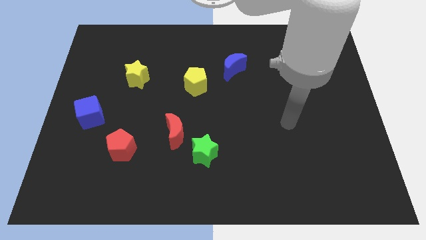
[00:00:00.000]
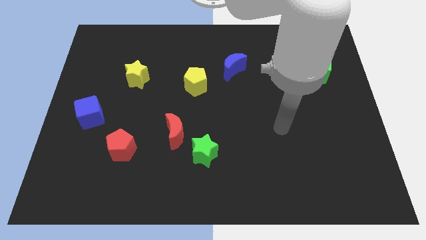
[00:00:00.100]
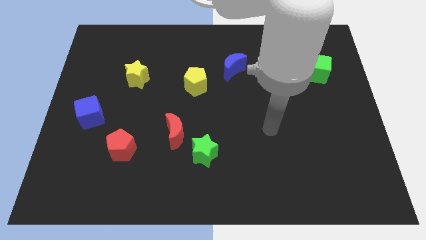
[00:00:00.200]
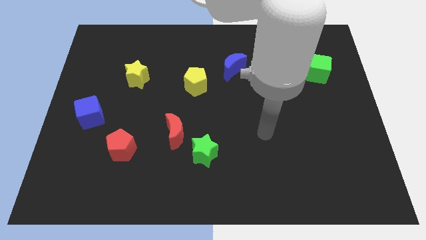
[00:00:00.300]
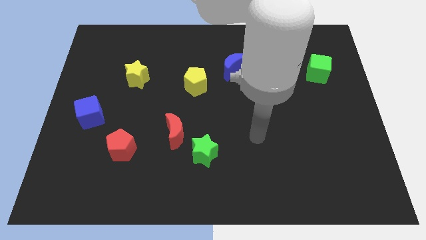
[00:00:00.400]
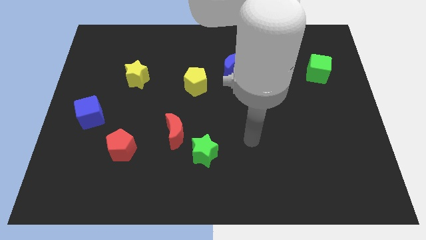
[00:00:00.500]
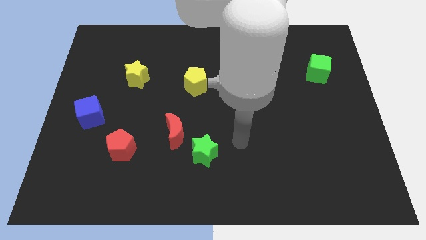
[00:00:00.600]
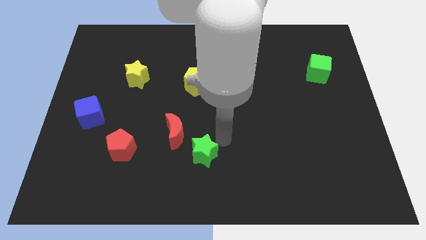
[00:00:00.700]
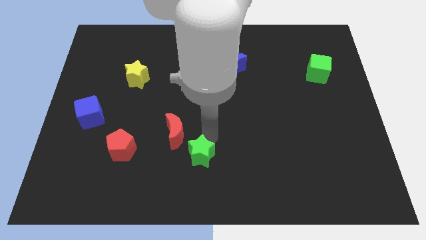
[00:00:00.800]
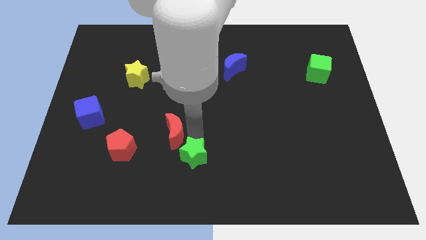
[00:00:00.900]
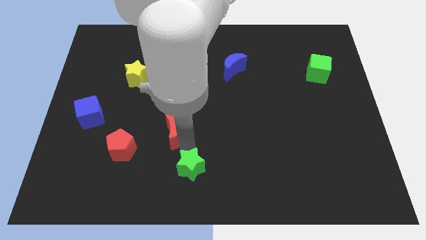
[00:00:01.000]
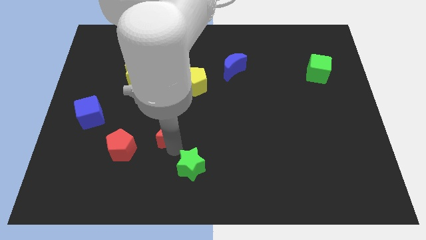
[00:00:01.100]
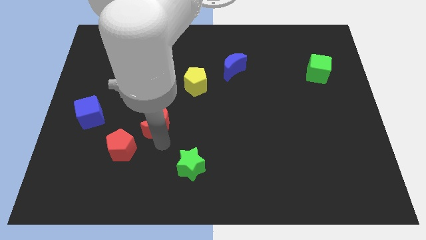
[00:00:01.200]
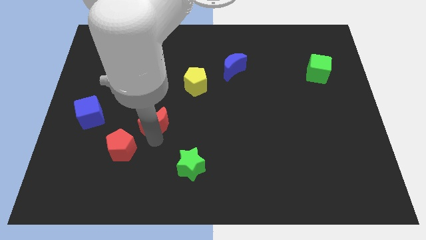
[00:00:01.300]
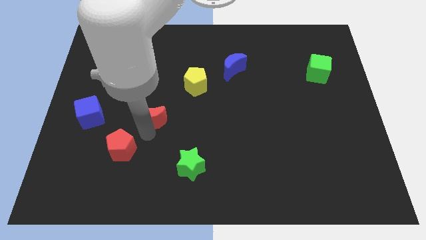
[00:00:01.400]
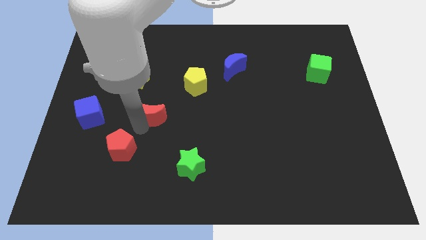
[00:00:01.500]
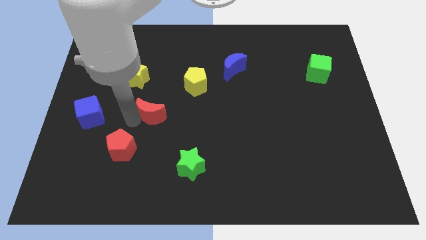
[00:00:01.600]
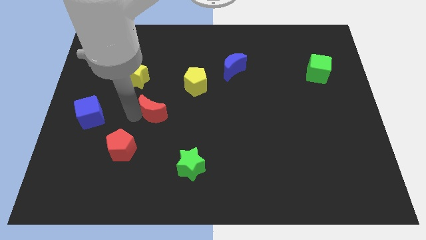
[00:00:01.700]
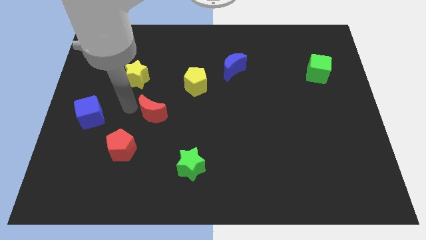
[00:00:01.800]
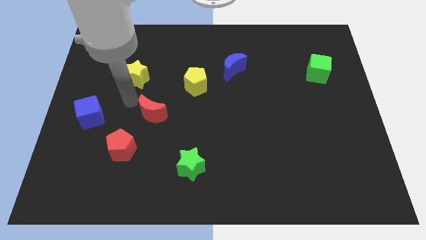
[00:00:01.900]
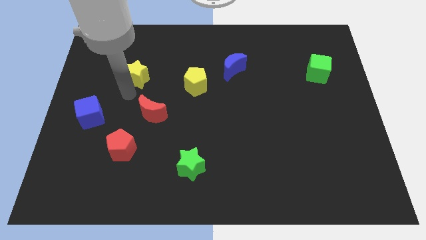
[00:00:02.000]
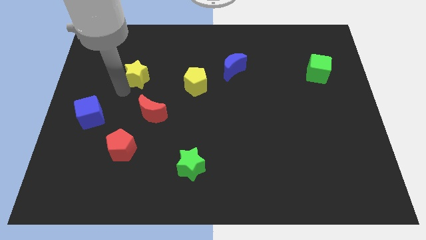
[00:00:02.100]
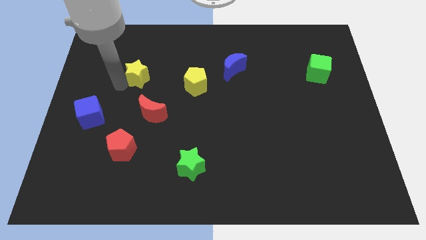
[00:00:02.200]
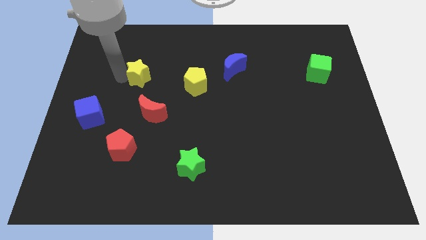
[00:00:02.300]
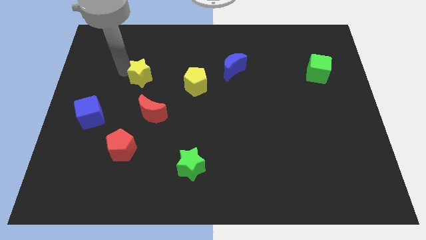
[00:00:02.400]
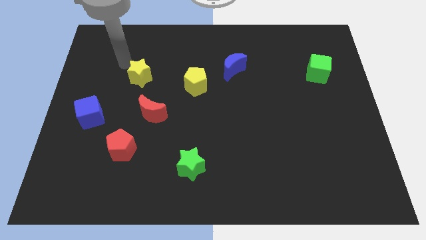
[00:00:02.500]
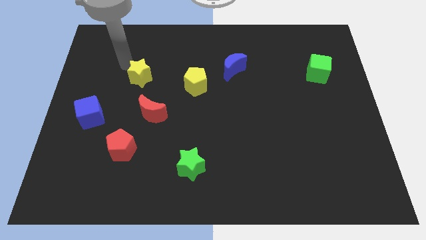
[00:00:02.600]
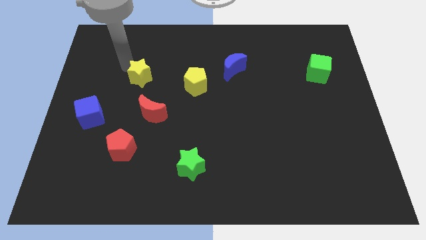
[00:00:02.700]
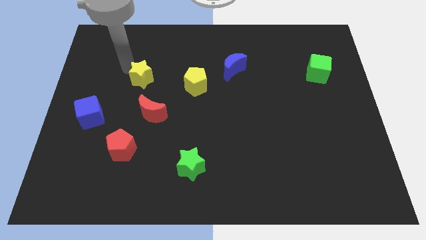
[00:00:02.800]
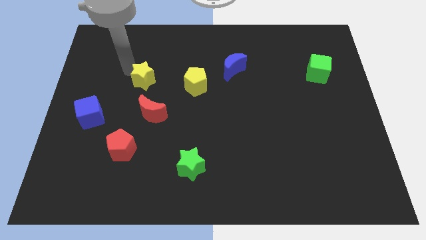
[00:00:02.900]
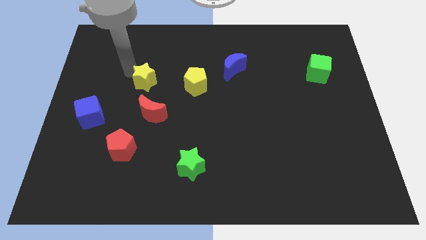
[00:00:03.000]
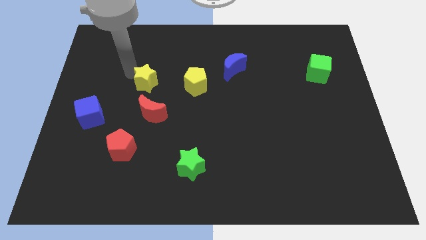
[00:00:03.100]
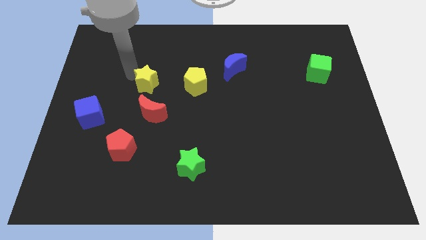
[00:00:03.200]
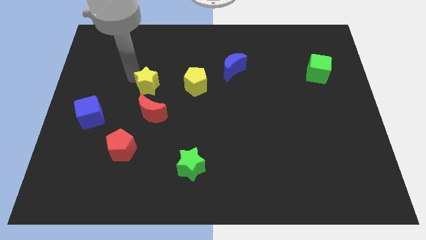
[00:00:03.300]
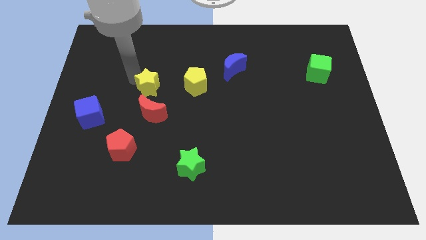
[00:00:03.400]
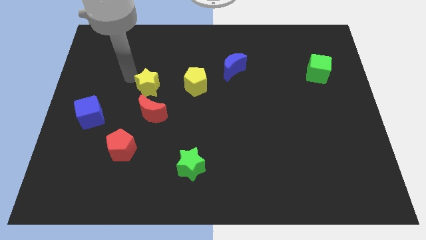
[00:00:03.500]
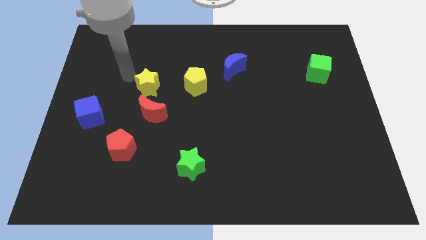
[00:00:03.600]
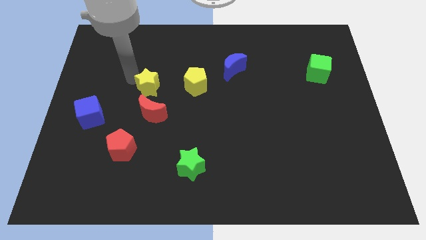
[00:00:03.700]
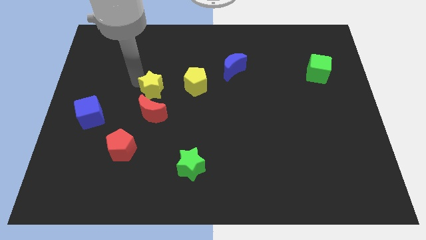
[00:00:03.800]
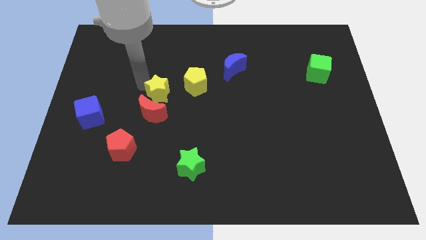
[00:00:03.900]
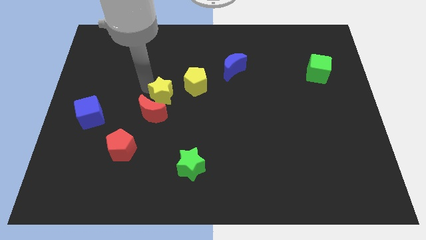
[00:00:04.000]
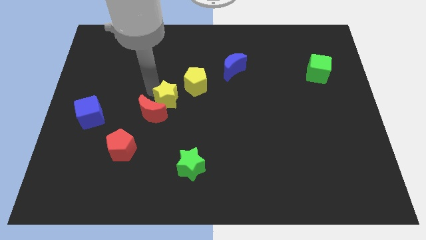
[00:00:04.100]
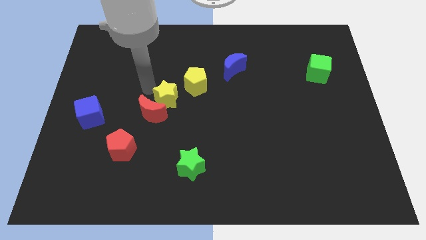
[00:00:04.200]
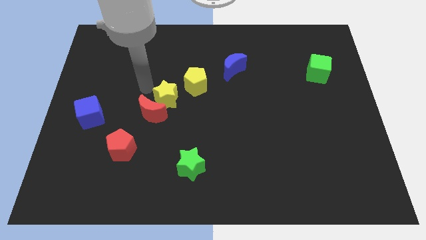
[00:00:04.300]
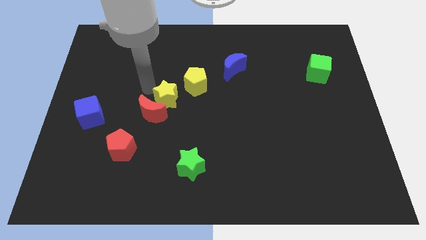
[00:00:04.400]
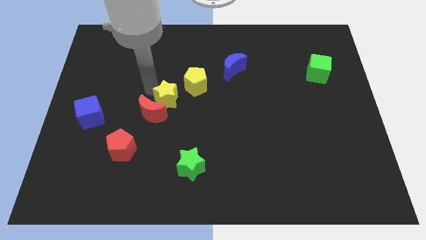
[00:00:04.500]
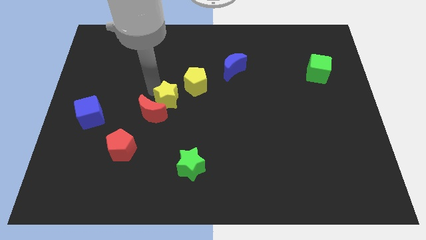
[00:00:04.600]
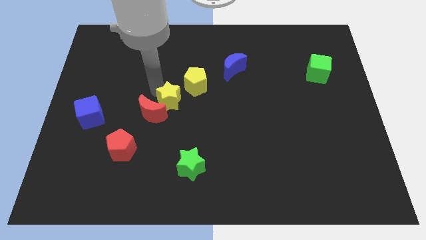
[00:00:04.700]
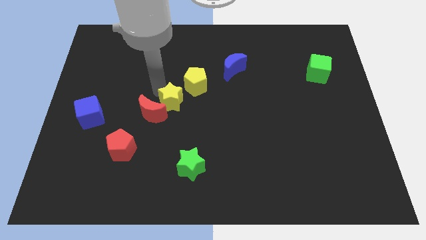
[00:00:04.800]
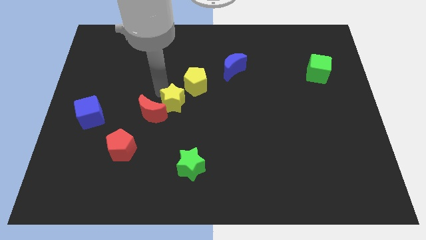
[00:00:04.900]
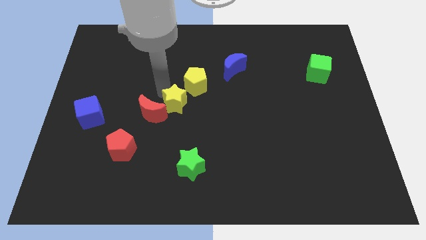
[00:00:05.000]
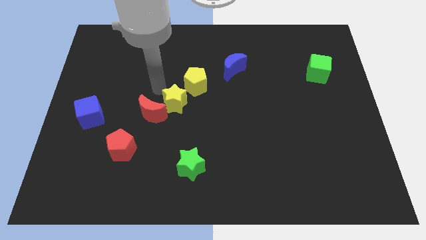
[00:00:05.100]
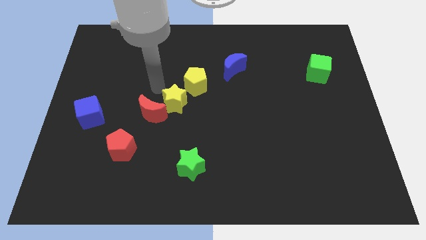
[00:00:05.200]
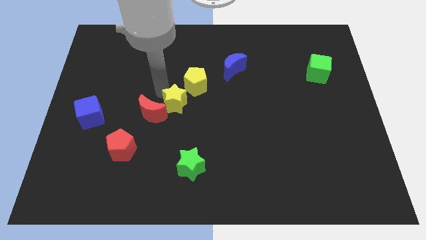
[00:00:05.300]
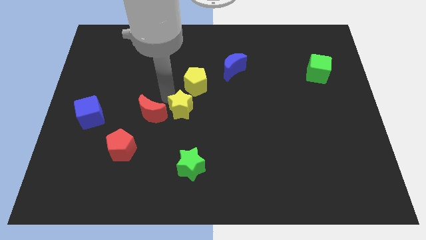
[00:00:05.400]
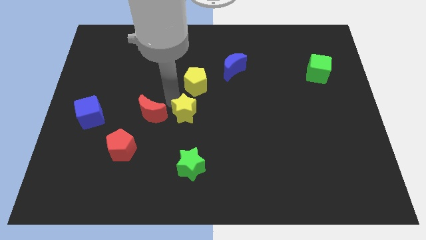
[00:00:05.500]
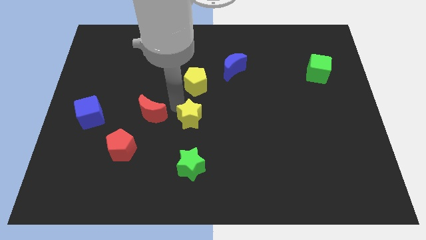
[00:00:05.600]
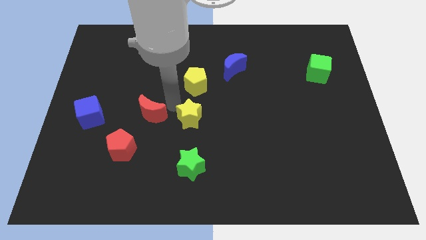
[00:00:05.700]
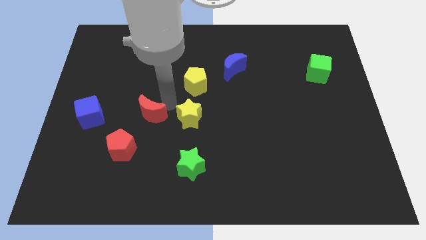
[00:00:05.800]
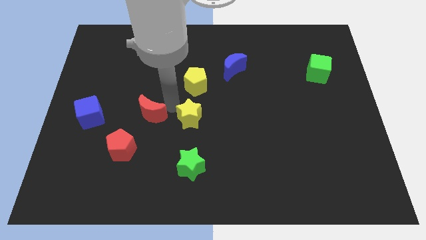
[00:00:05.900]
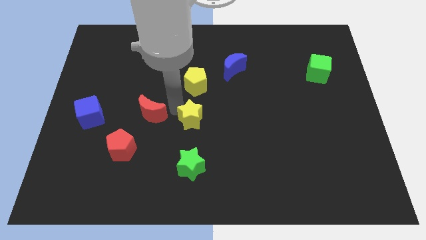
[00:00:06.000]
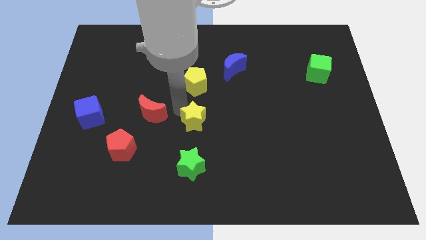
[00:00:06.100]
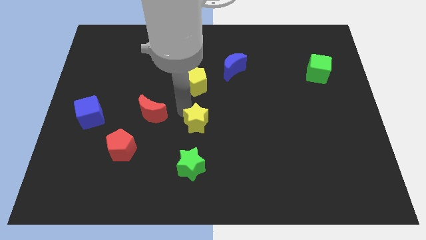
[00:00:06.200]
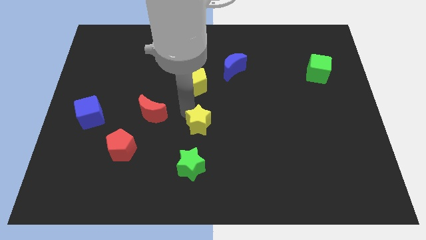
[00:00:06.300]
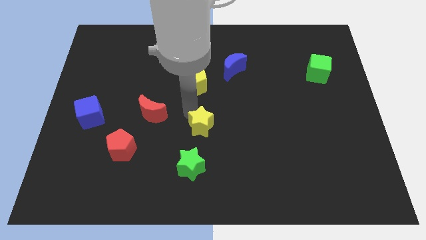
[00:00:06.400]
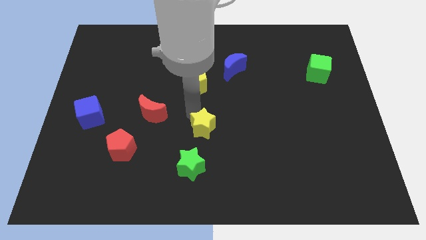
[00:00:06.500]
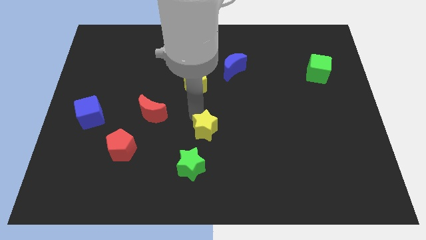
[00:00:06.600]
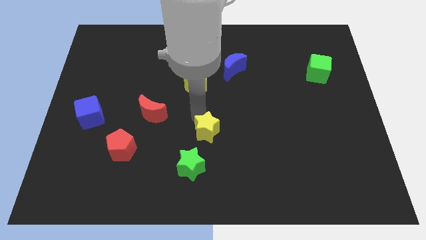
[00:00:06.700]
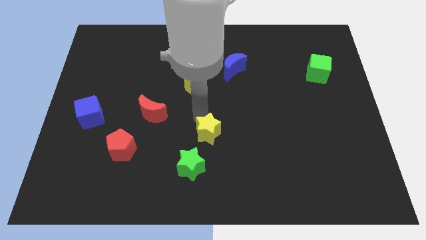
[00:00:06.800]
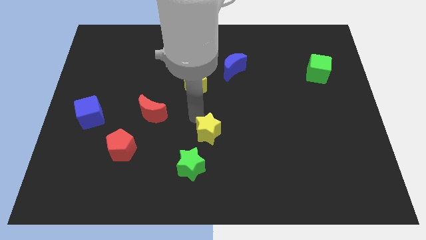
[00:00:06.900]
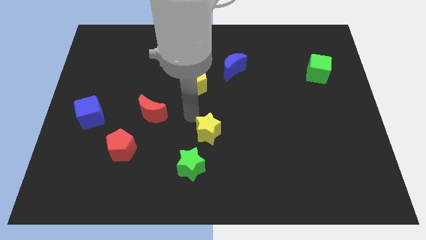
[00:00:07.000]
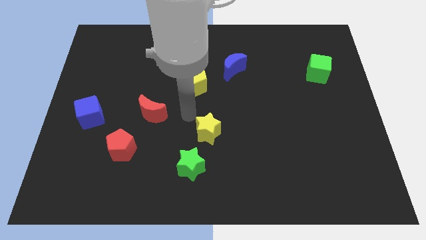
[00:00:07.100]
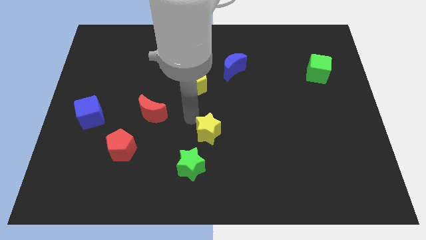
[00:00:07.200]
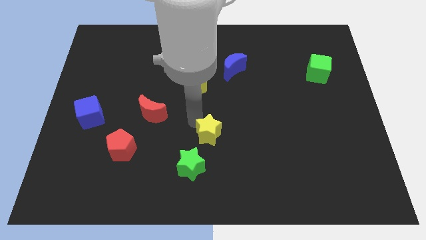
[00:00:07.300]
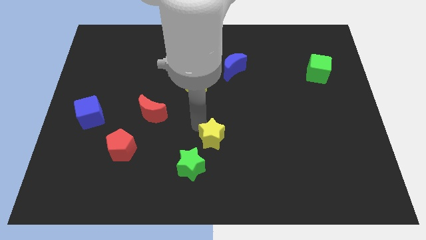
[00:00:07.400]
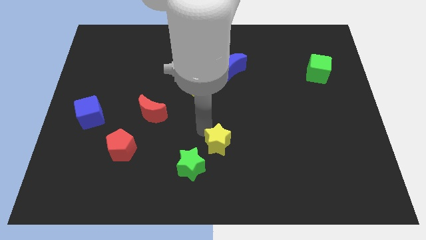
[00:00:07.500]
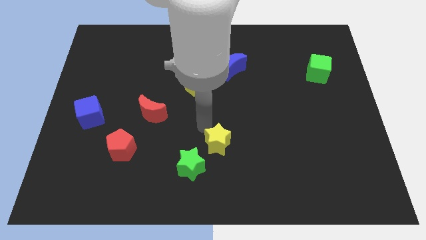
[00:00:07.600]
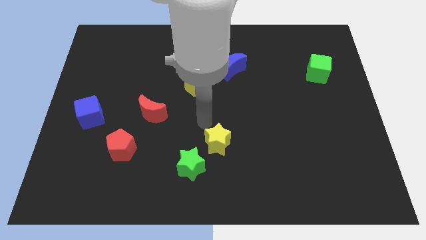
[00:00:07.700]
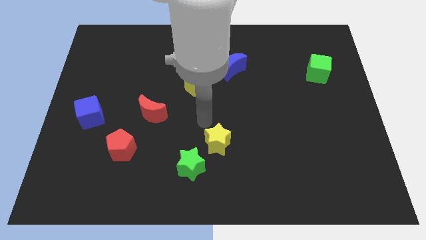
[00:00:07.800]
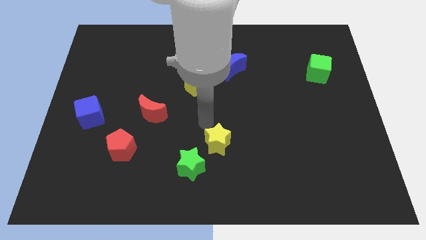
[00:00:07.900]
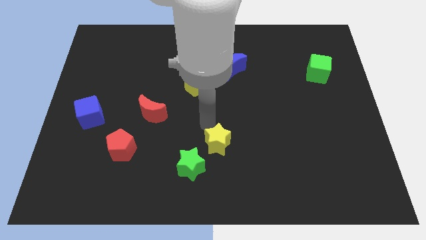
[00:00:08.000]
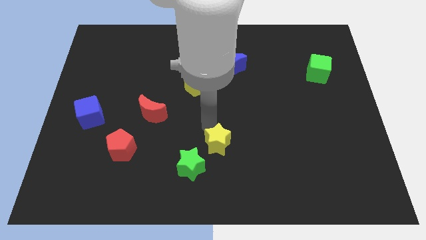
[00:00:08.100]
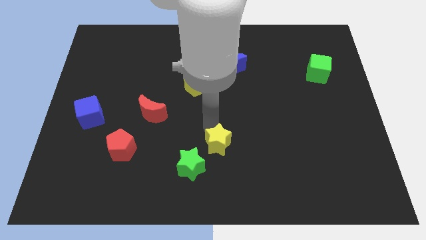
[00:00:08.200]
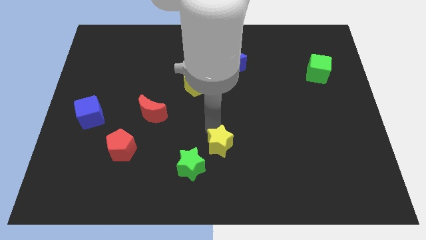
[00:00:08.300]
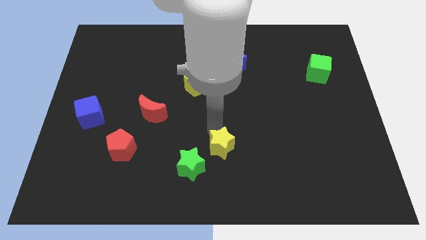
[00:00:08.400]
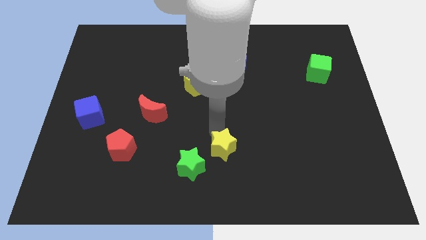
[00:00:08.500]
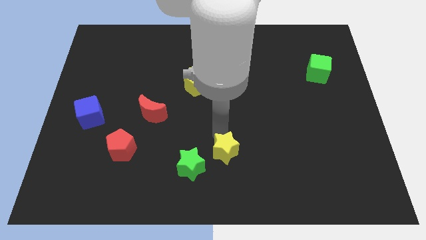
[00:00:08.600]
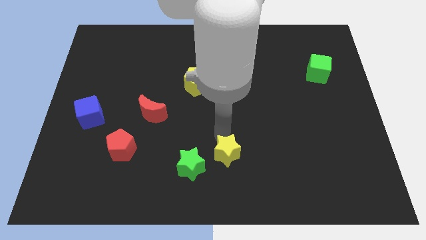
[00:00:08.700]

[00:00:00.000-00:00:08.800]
put the yellow star to the bottom
